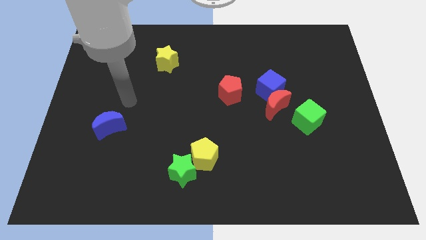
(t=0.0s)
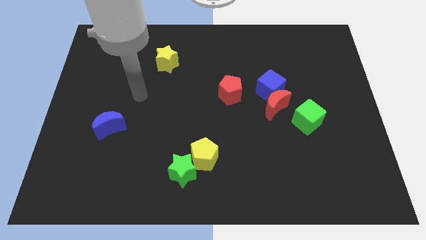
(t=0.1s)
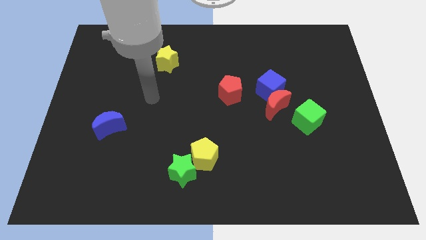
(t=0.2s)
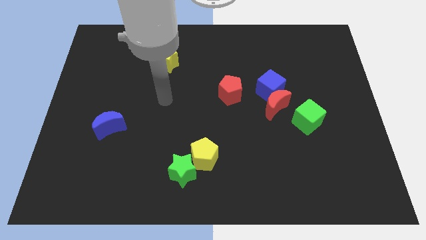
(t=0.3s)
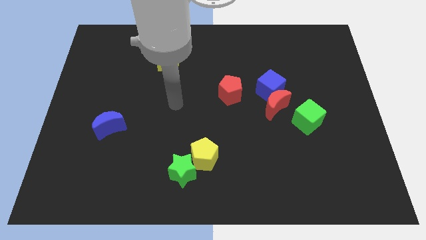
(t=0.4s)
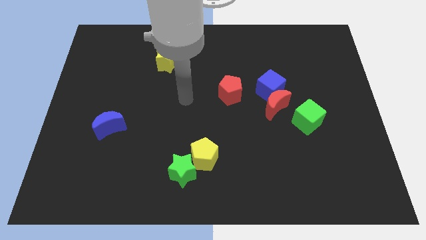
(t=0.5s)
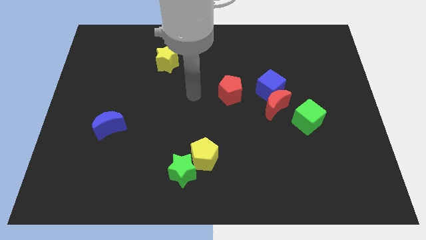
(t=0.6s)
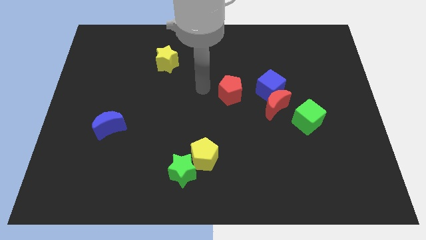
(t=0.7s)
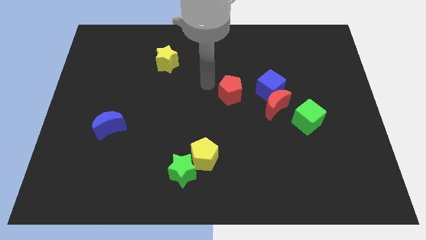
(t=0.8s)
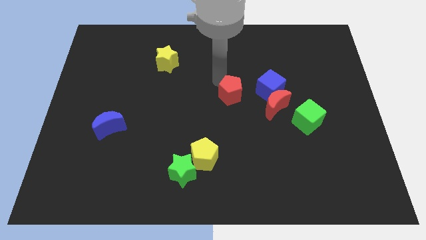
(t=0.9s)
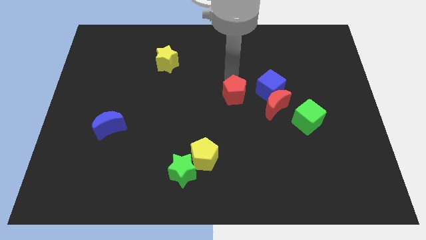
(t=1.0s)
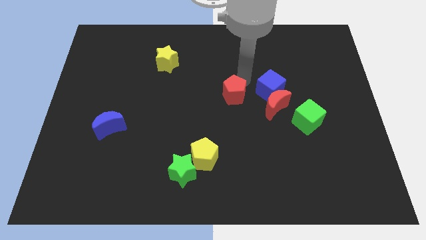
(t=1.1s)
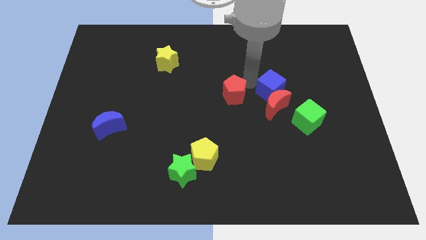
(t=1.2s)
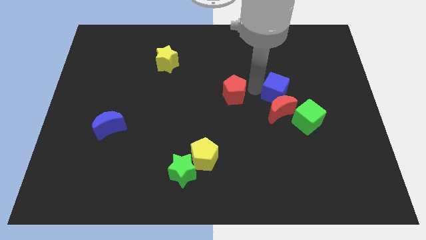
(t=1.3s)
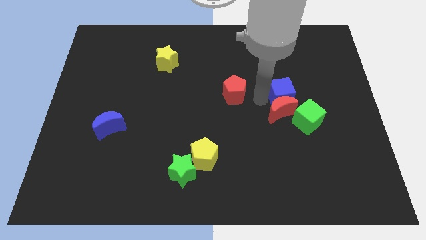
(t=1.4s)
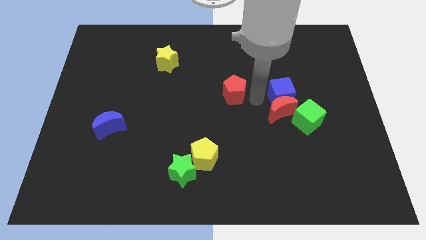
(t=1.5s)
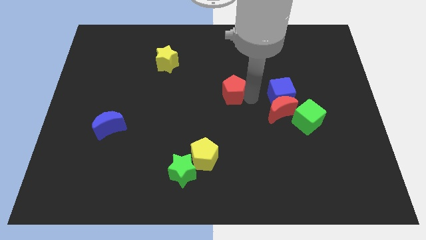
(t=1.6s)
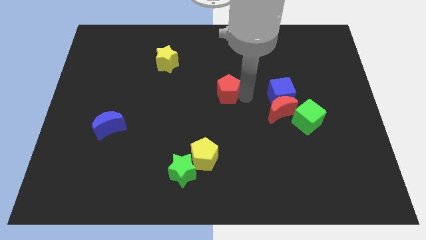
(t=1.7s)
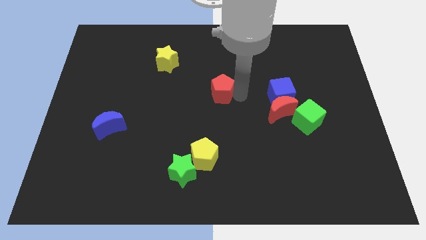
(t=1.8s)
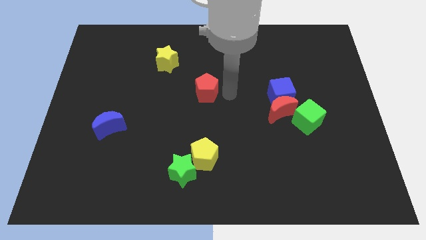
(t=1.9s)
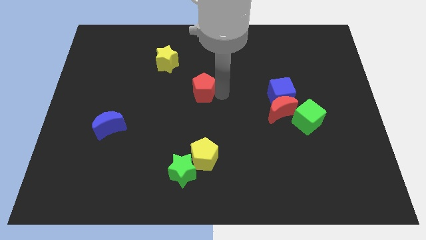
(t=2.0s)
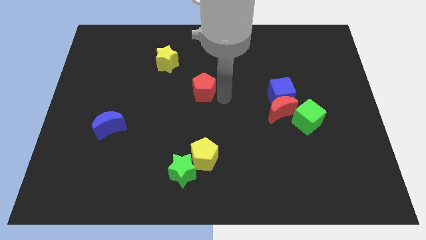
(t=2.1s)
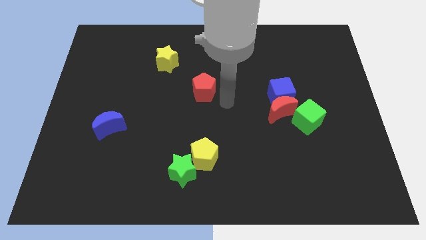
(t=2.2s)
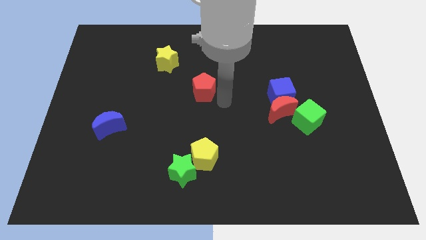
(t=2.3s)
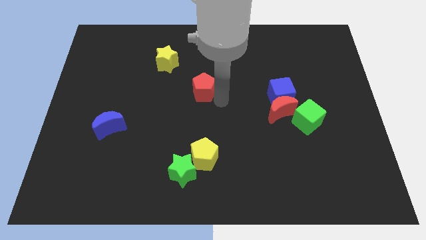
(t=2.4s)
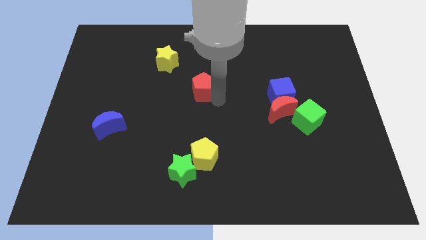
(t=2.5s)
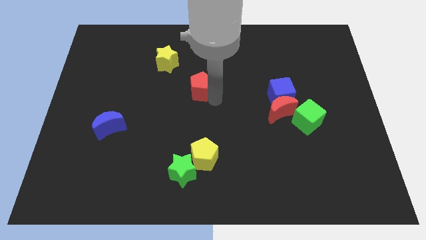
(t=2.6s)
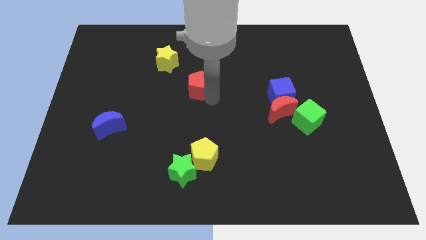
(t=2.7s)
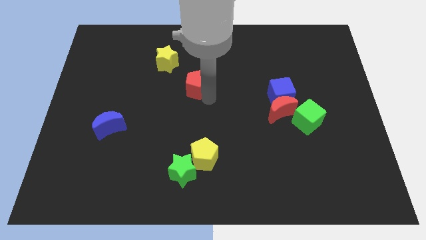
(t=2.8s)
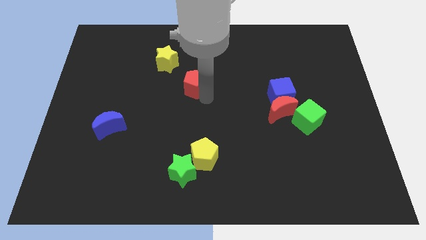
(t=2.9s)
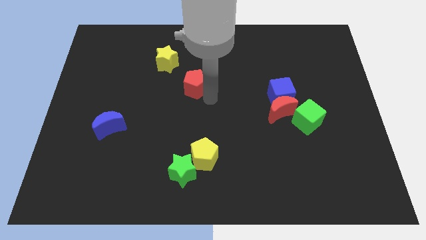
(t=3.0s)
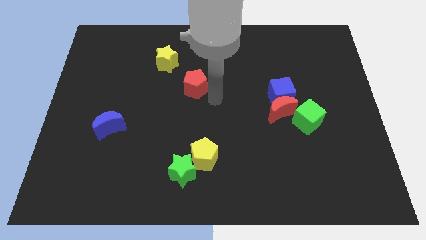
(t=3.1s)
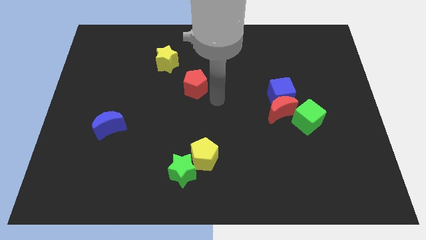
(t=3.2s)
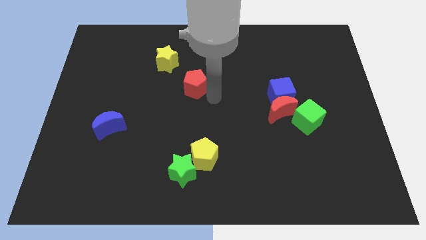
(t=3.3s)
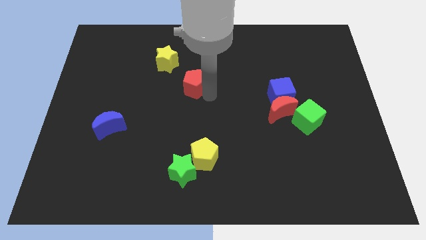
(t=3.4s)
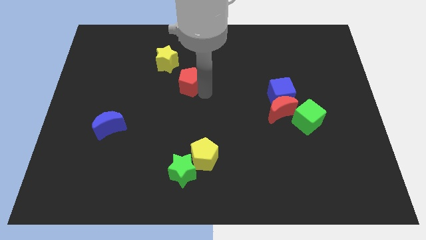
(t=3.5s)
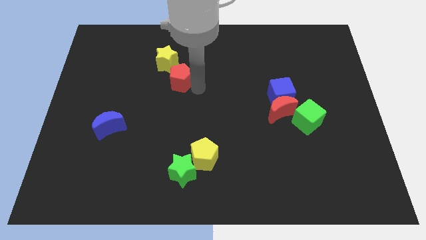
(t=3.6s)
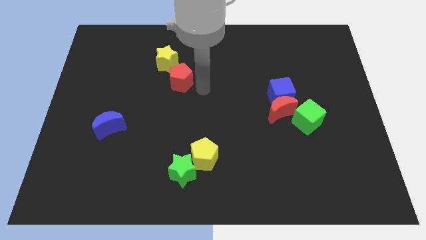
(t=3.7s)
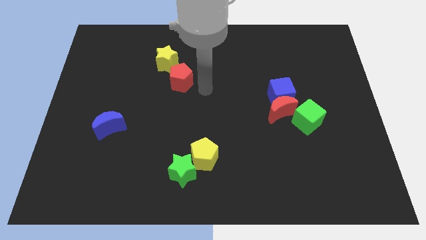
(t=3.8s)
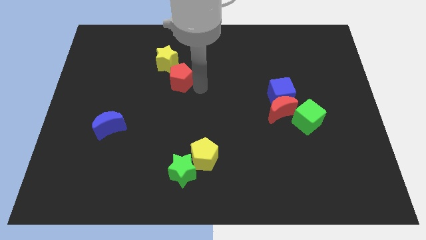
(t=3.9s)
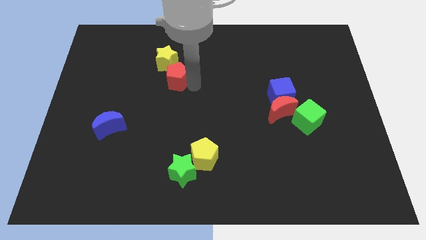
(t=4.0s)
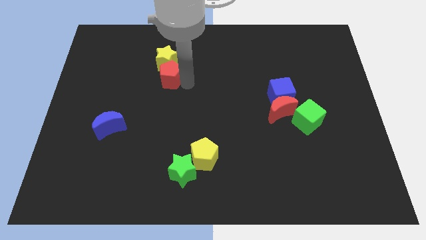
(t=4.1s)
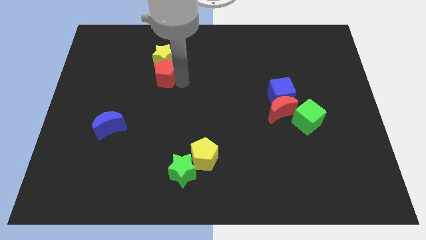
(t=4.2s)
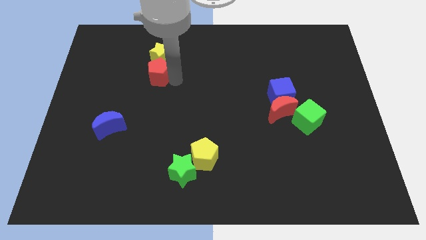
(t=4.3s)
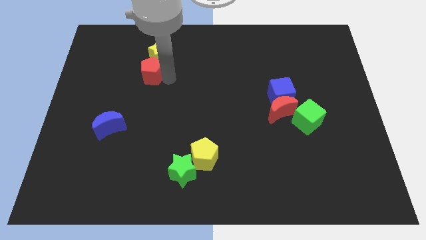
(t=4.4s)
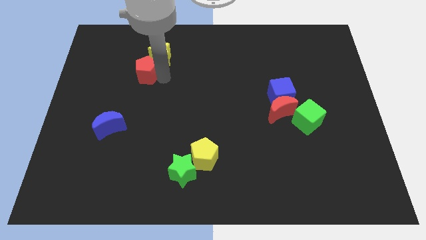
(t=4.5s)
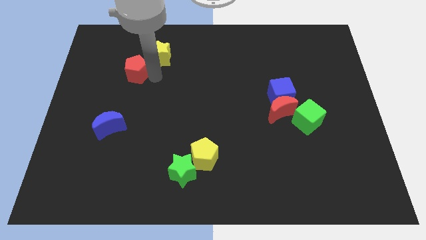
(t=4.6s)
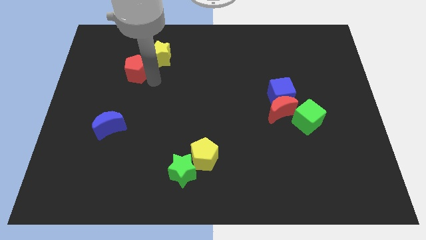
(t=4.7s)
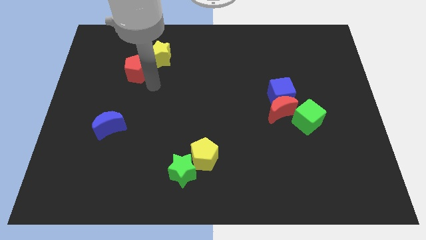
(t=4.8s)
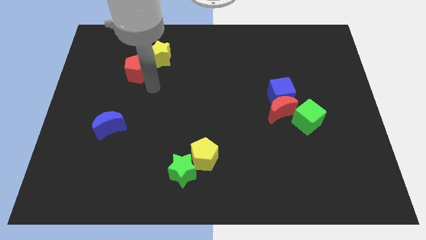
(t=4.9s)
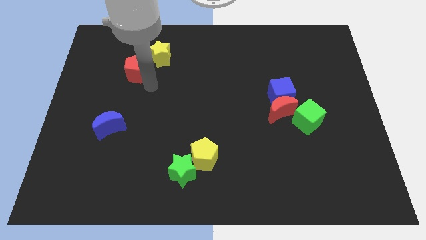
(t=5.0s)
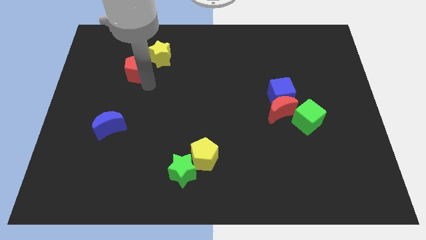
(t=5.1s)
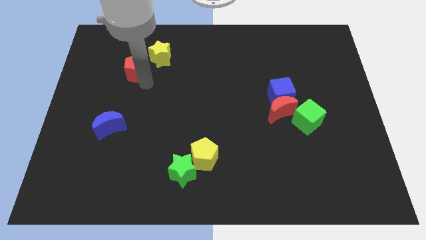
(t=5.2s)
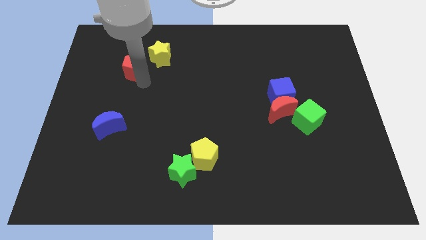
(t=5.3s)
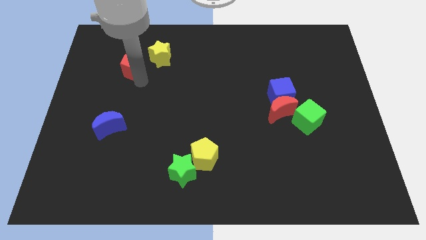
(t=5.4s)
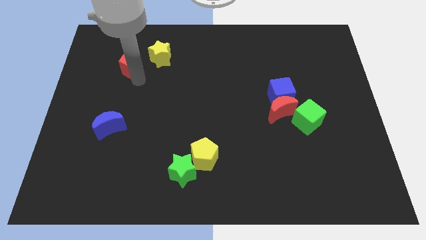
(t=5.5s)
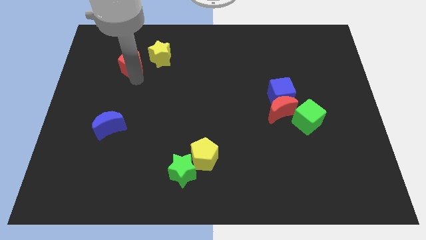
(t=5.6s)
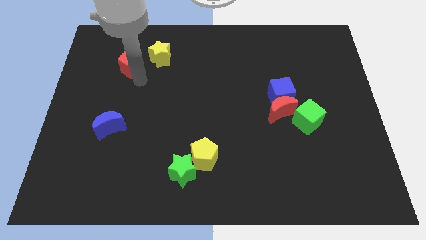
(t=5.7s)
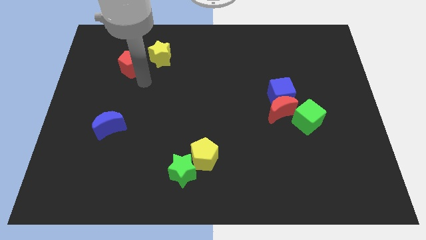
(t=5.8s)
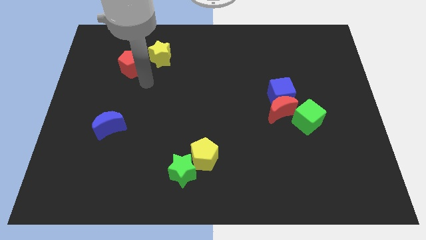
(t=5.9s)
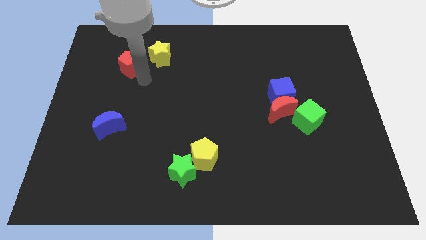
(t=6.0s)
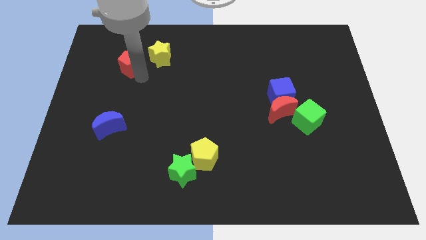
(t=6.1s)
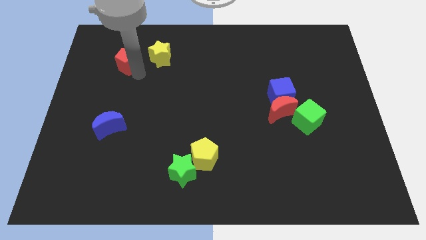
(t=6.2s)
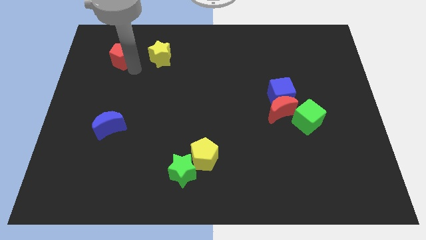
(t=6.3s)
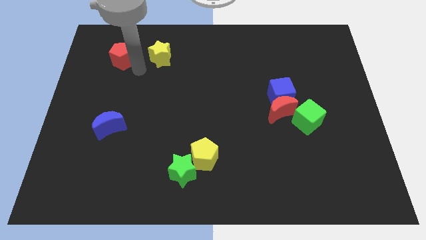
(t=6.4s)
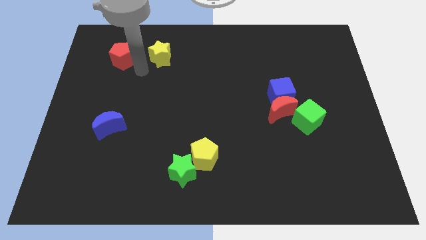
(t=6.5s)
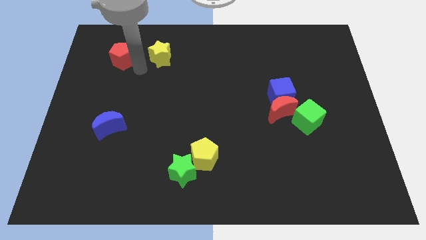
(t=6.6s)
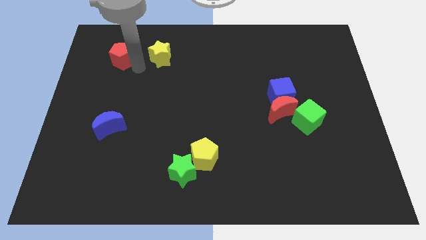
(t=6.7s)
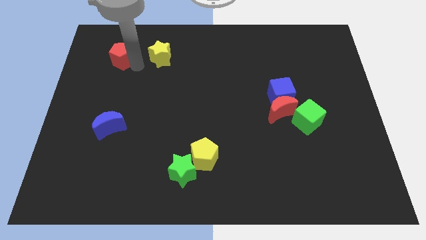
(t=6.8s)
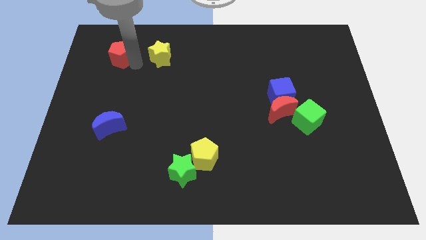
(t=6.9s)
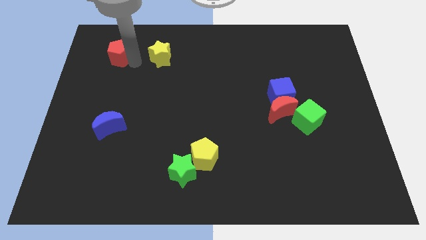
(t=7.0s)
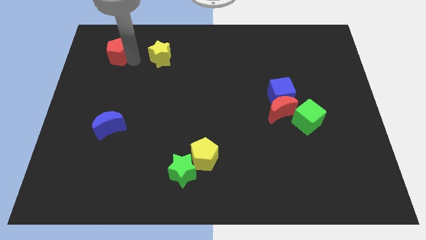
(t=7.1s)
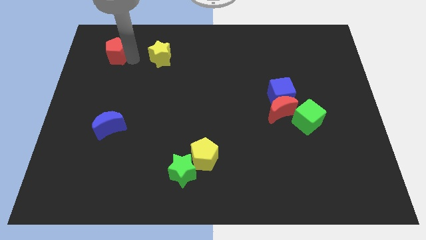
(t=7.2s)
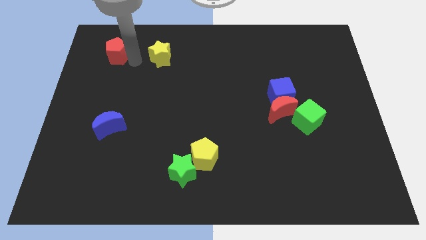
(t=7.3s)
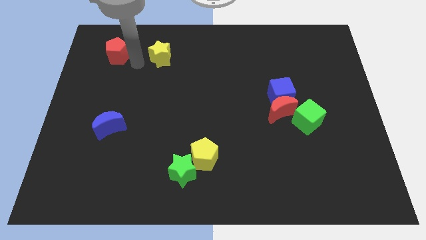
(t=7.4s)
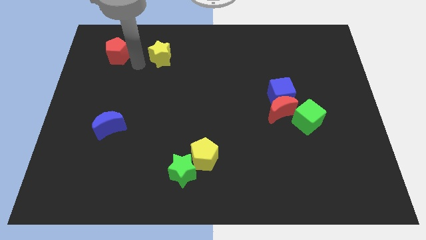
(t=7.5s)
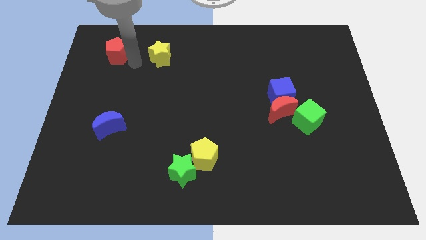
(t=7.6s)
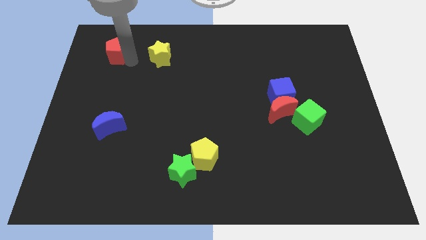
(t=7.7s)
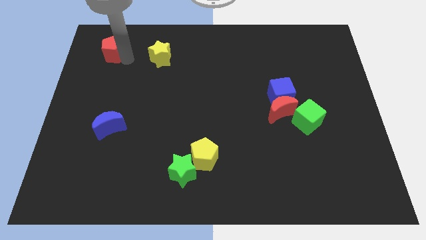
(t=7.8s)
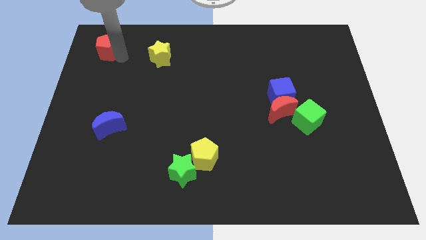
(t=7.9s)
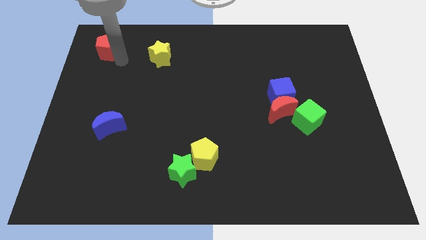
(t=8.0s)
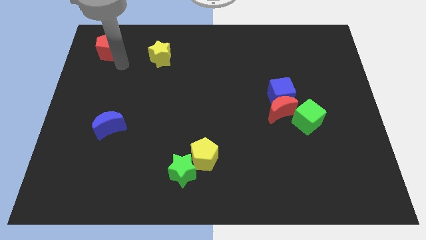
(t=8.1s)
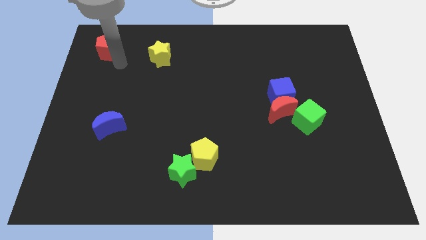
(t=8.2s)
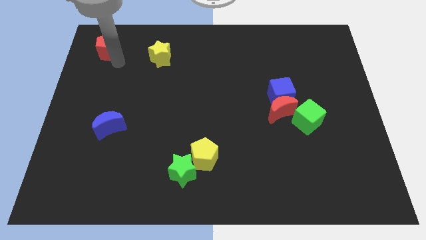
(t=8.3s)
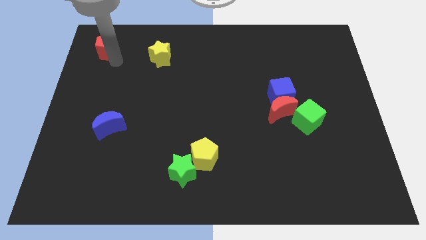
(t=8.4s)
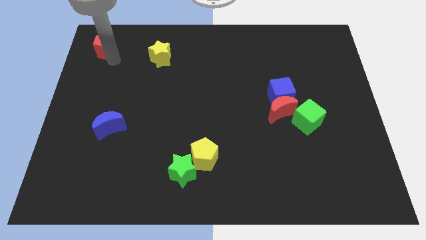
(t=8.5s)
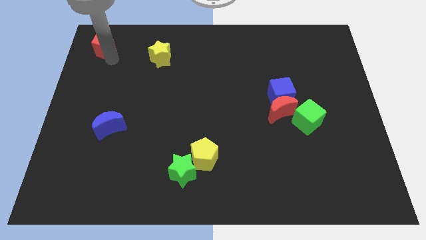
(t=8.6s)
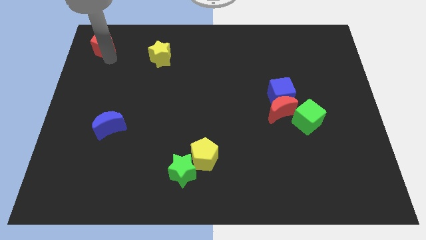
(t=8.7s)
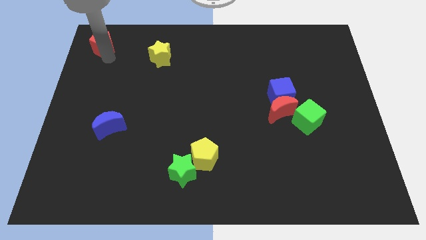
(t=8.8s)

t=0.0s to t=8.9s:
slide the red pentagon to the top left
